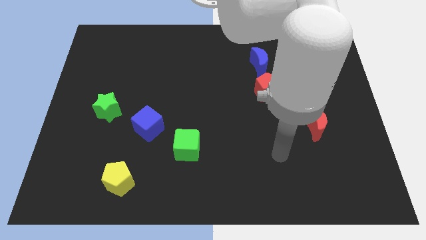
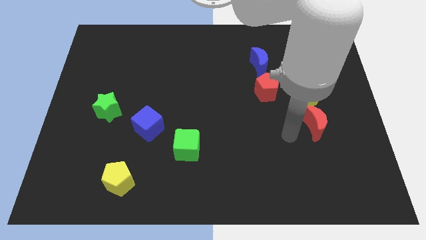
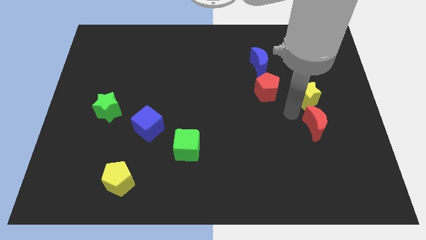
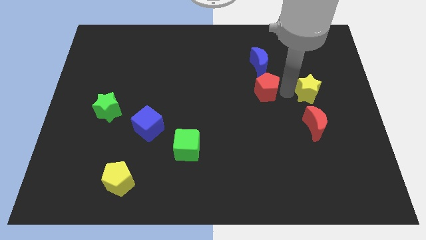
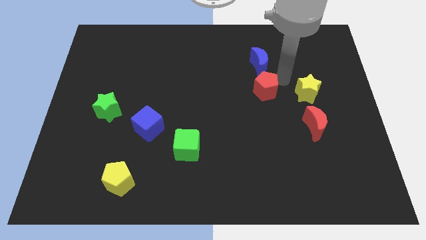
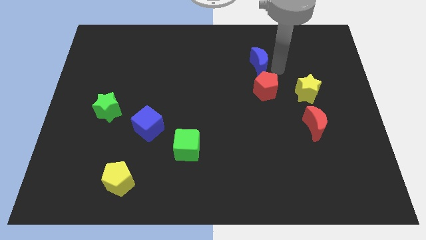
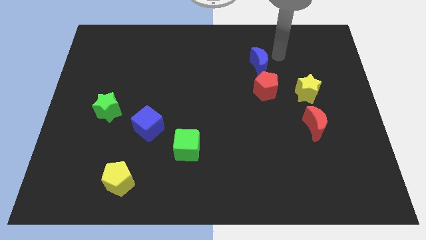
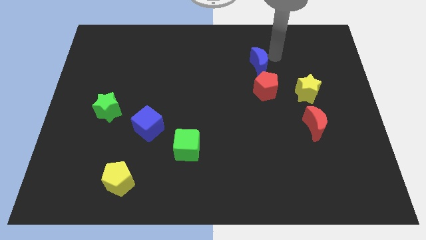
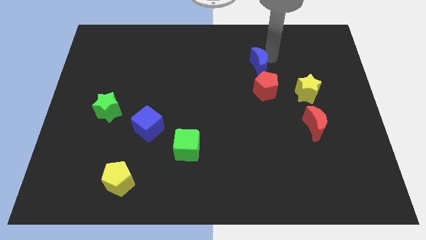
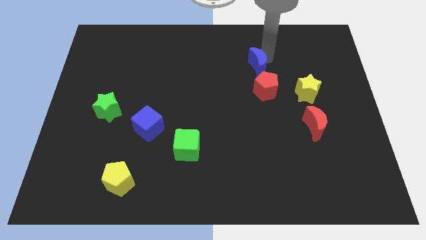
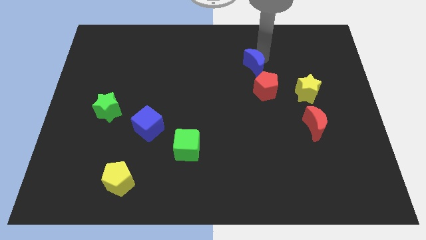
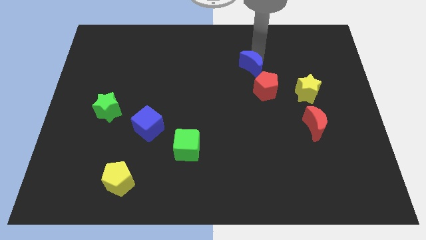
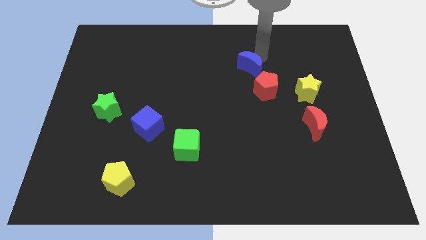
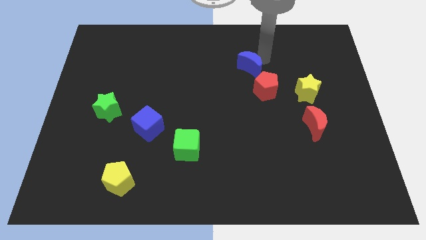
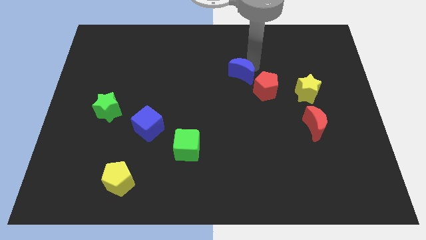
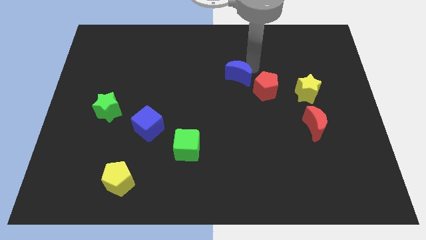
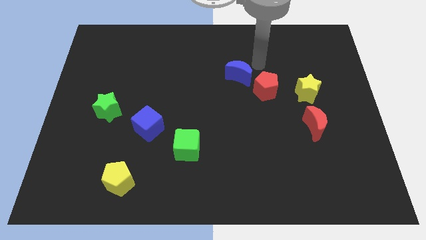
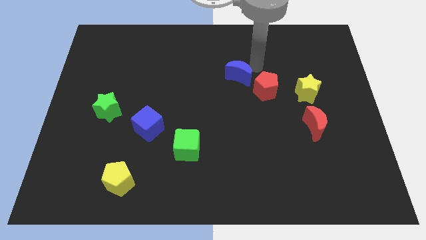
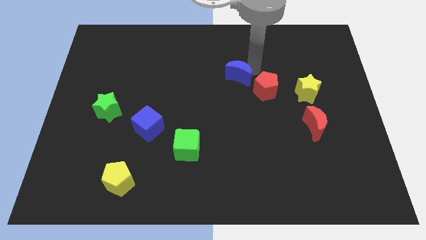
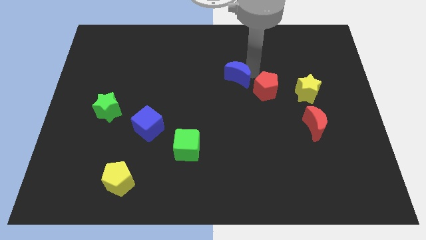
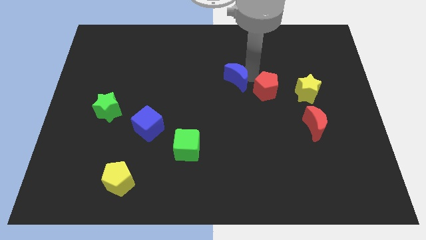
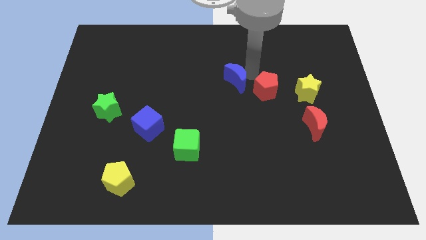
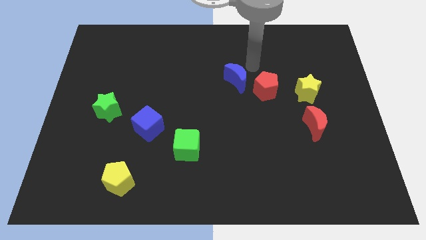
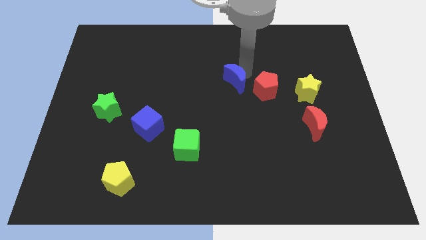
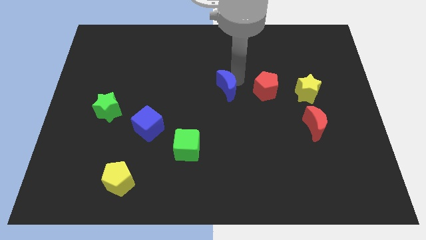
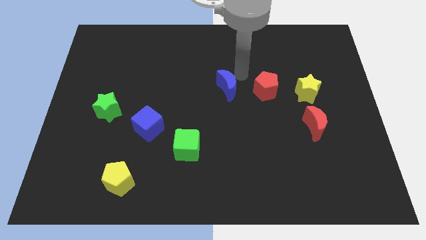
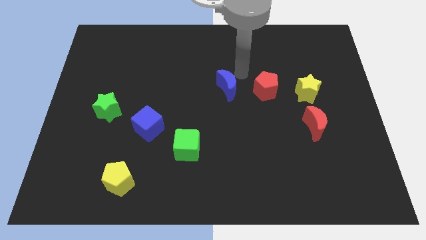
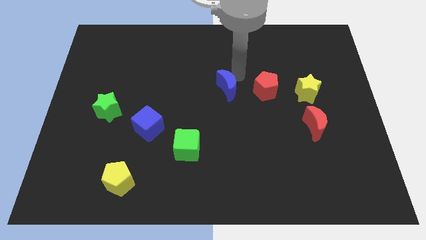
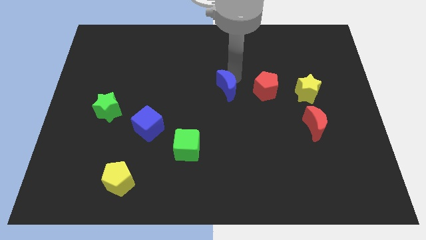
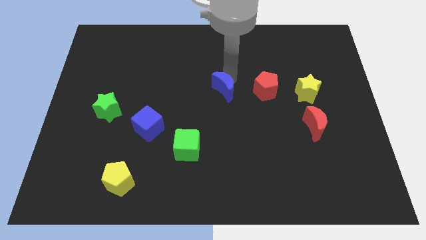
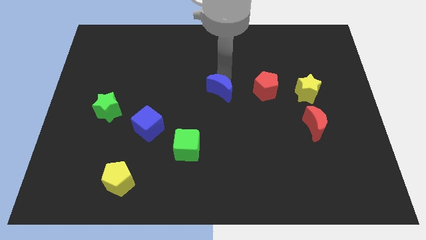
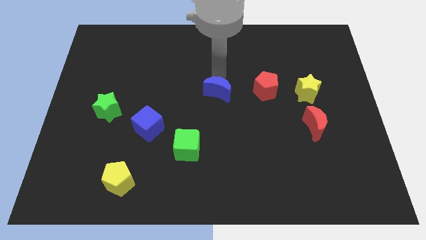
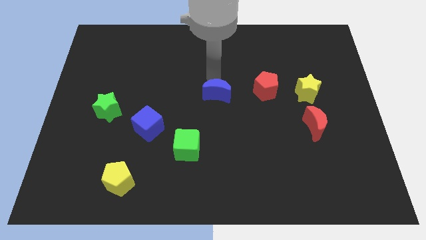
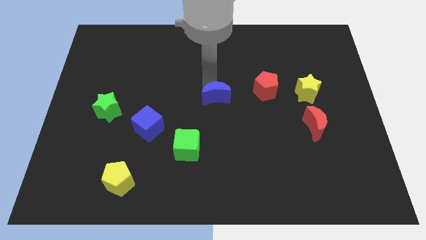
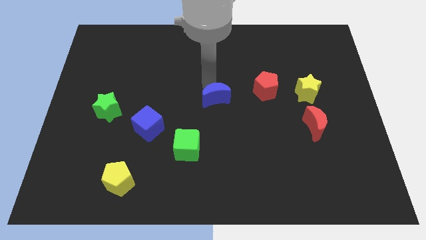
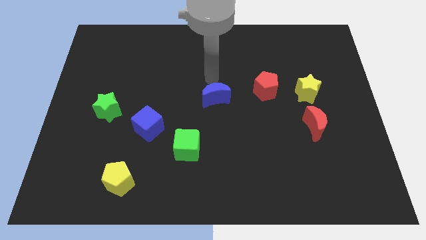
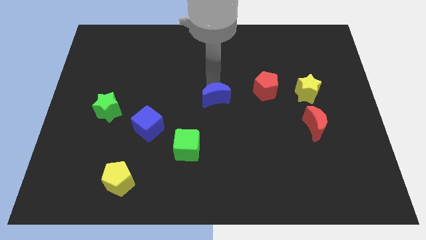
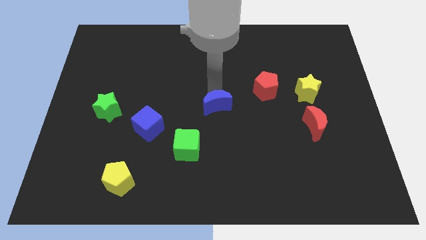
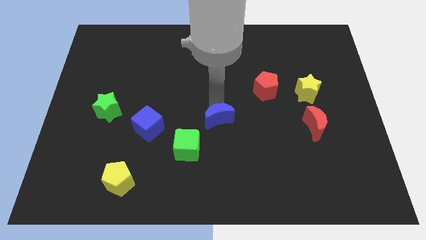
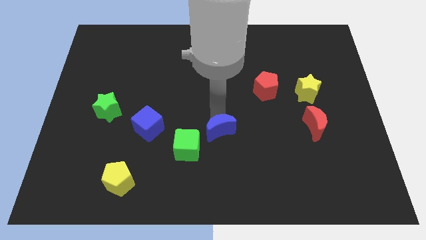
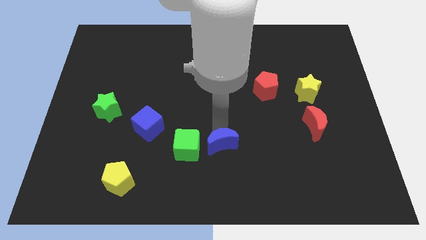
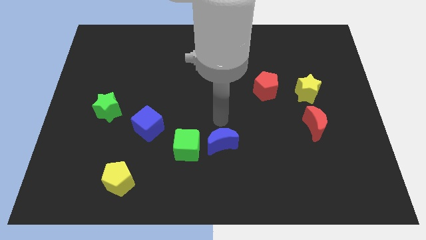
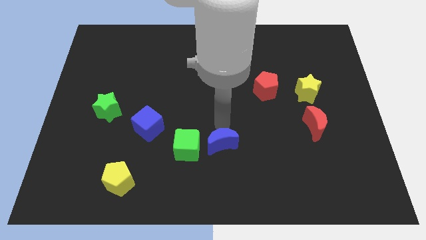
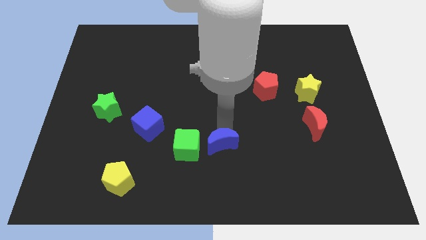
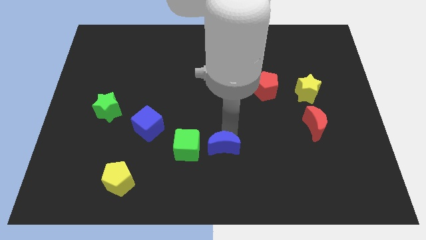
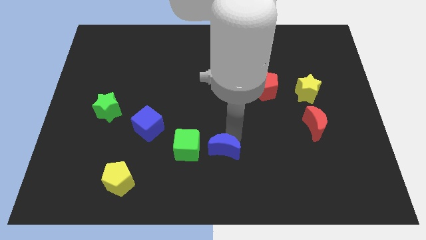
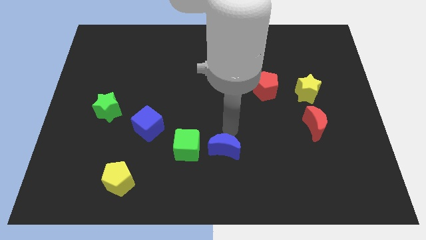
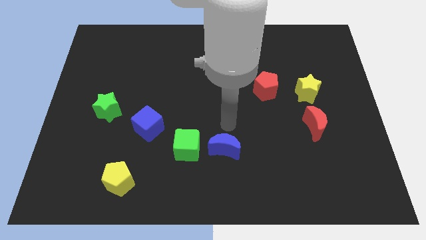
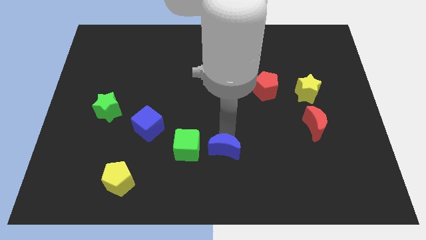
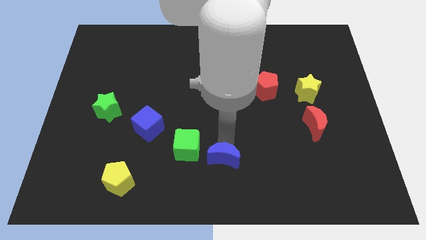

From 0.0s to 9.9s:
slide the blue moon to the bottom
